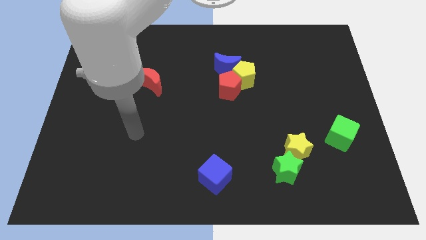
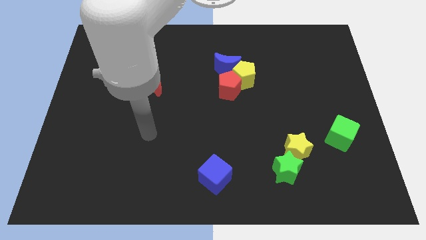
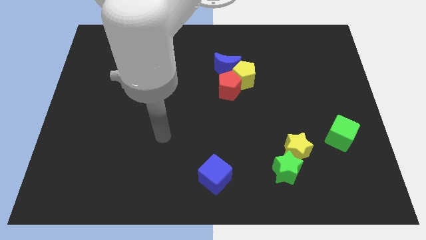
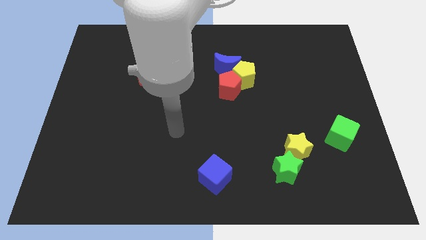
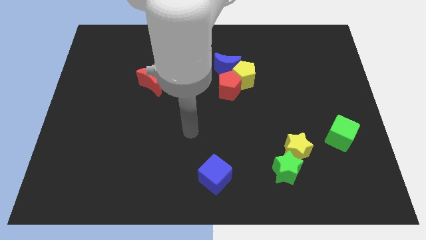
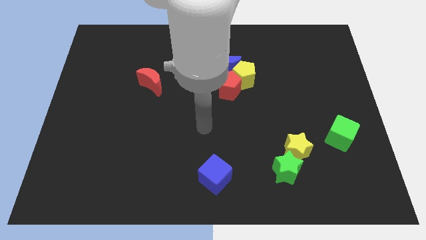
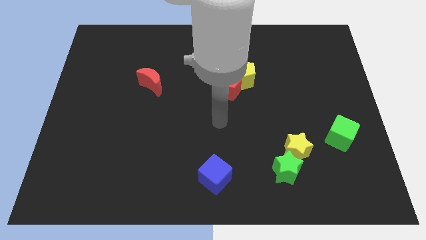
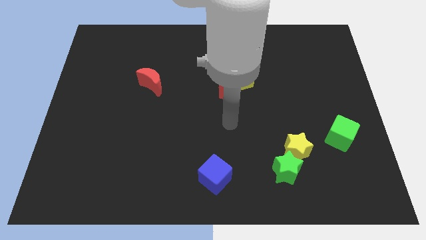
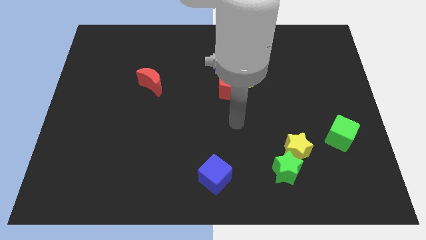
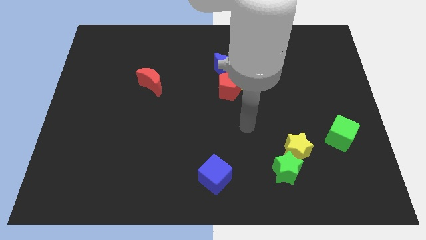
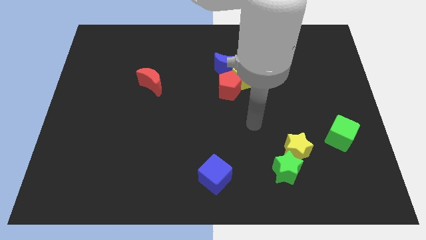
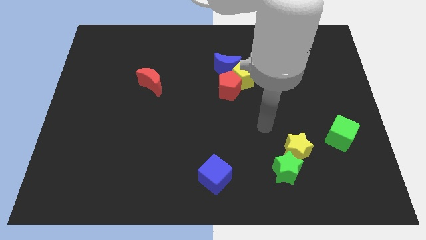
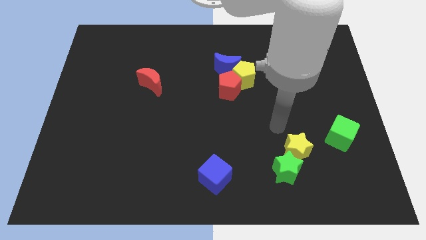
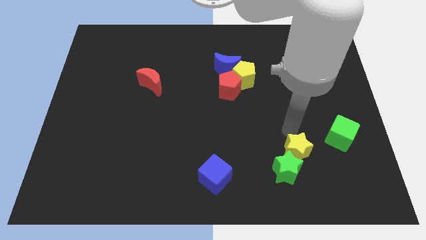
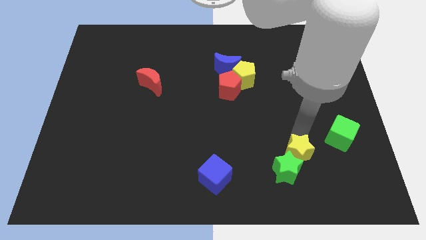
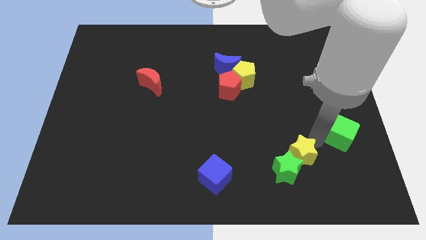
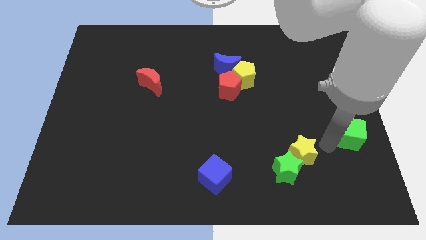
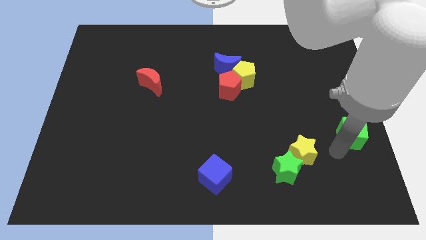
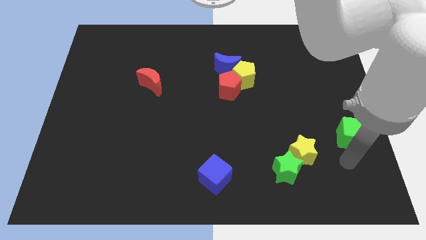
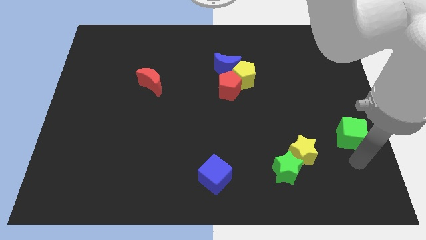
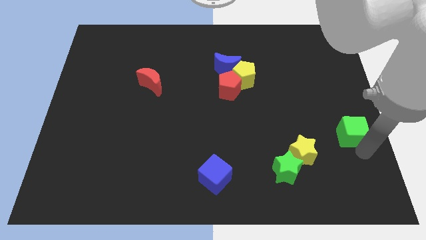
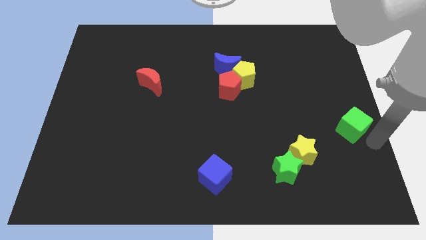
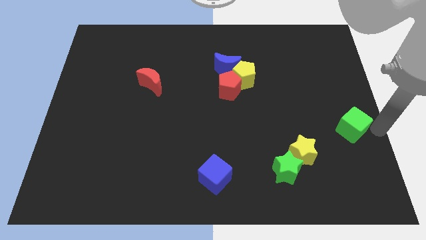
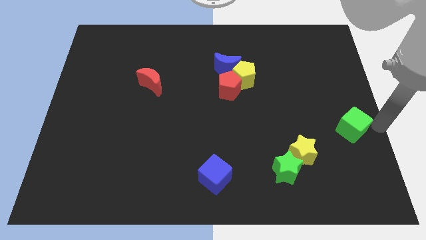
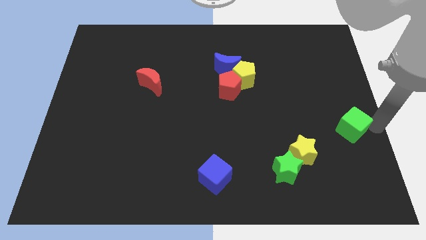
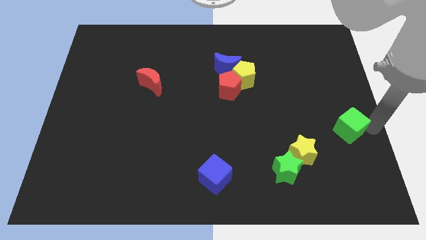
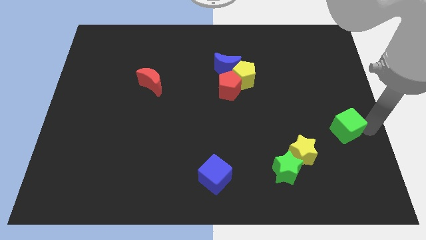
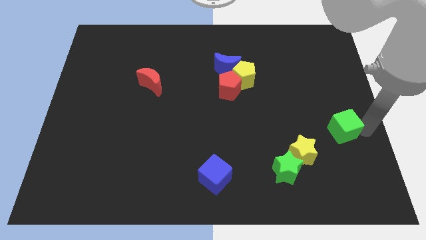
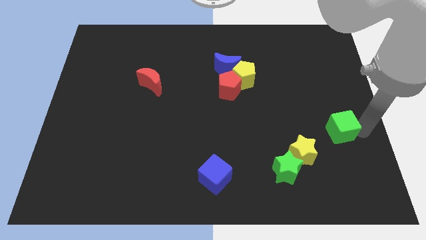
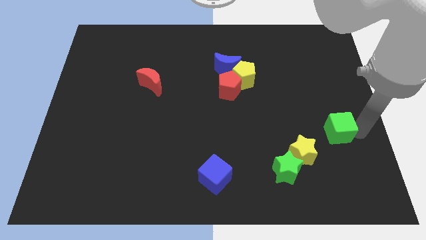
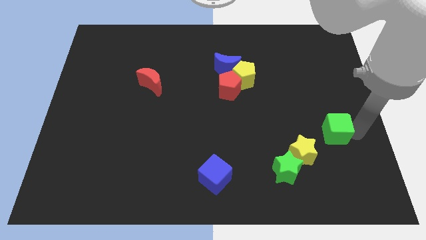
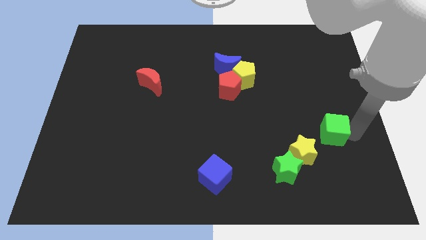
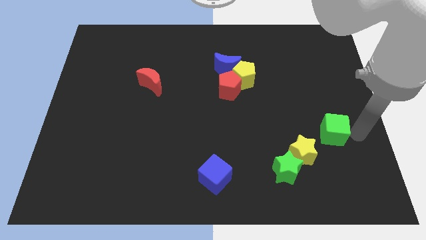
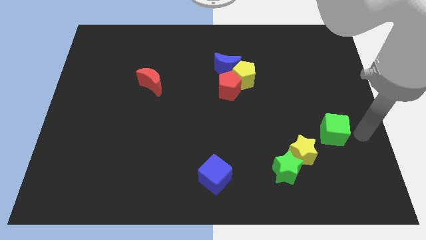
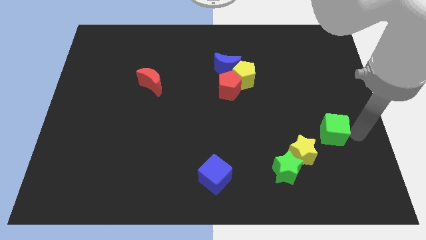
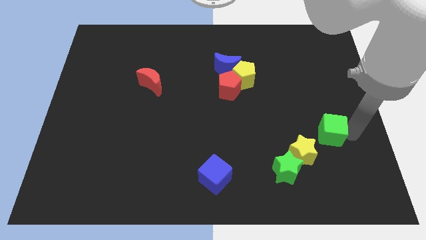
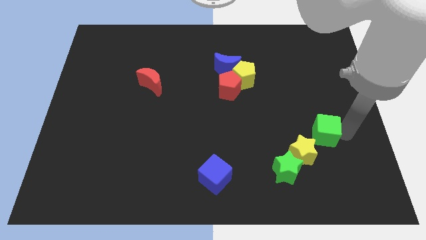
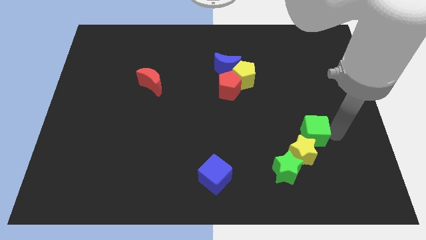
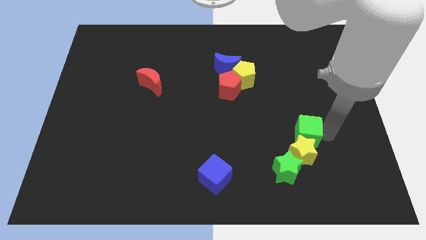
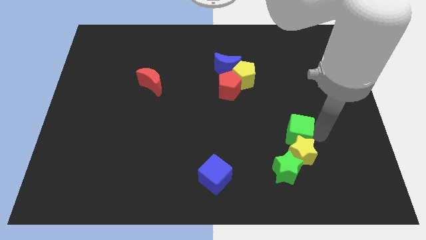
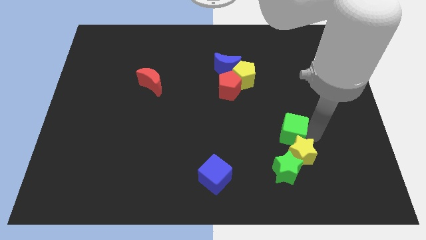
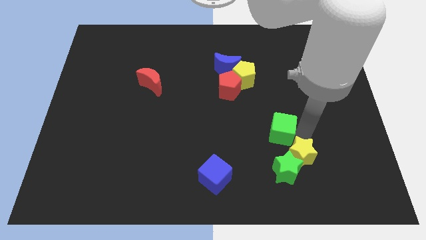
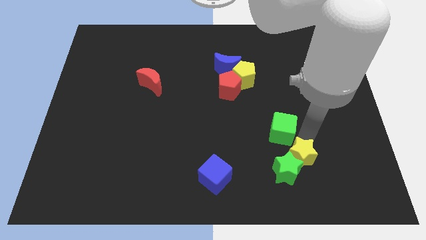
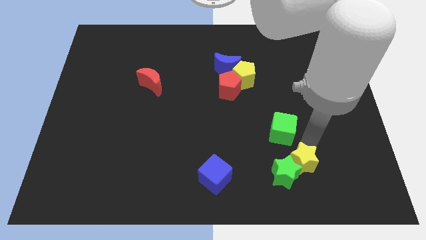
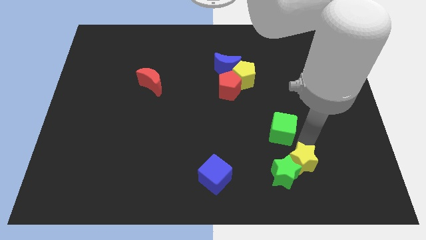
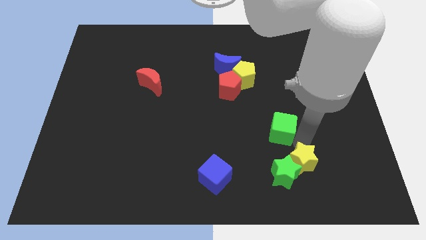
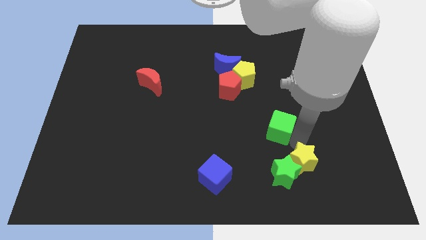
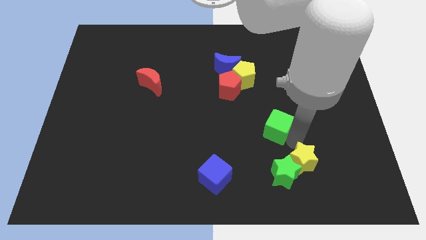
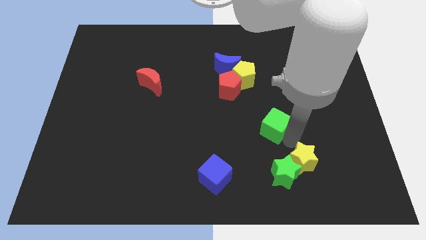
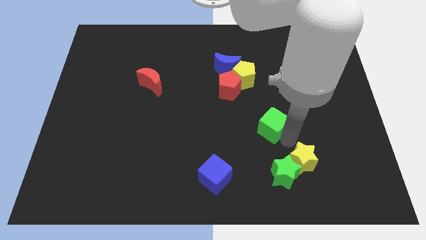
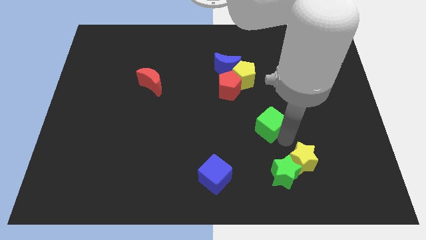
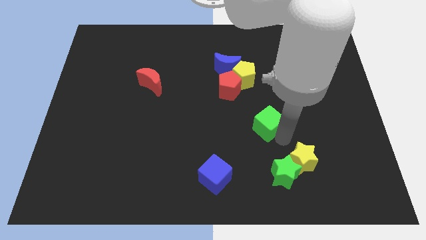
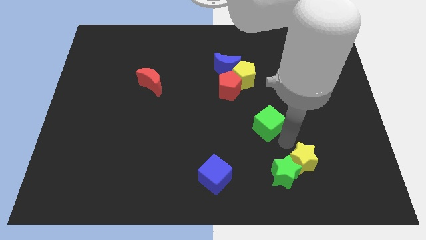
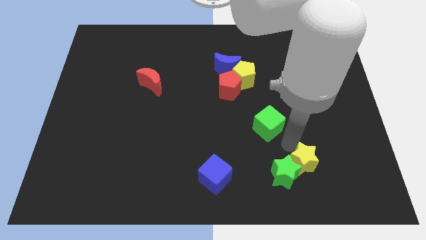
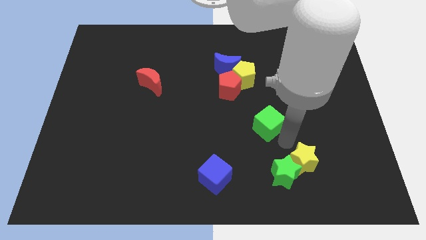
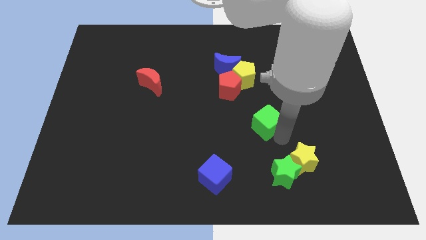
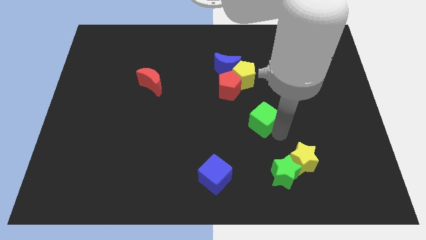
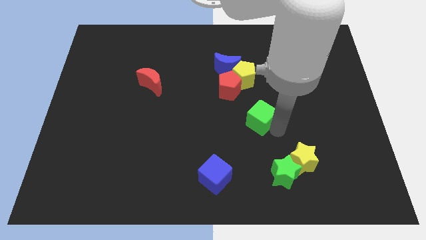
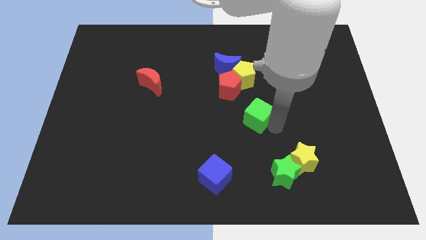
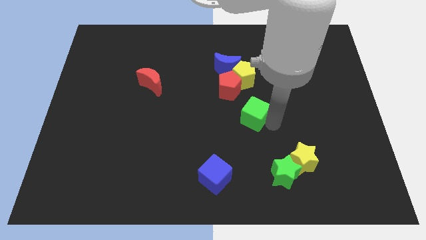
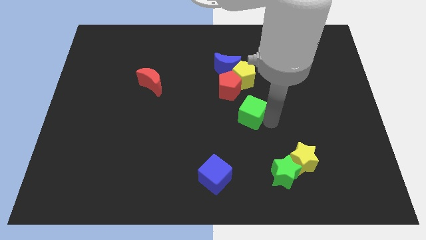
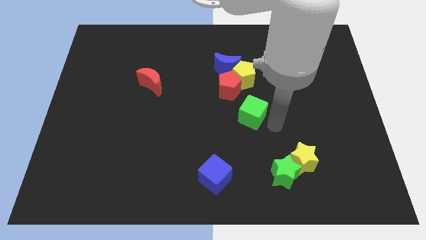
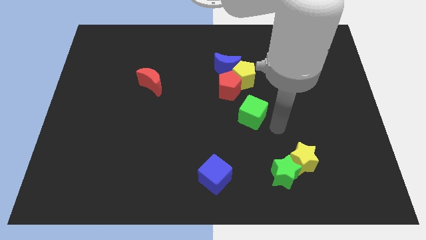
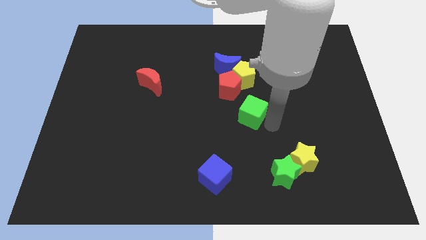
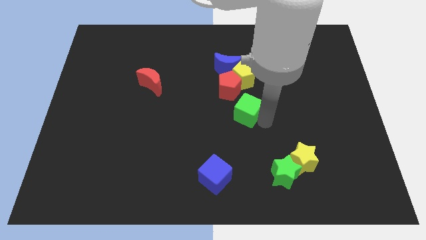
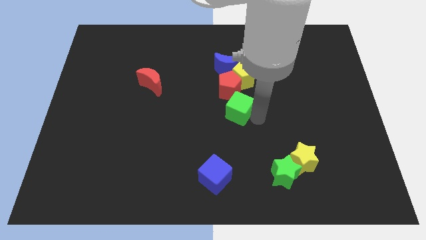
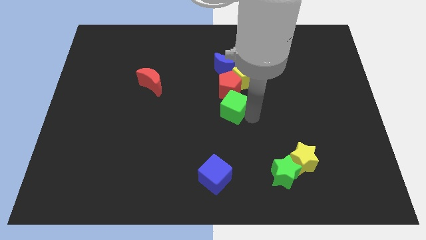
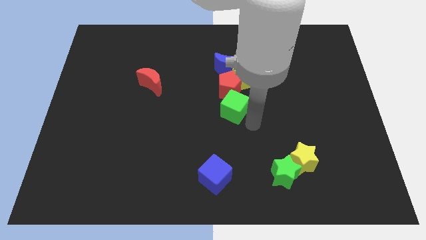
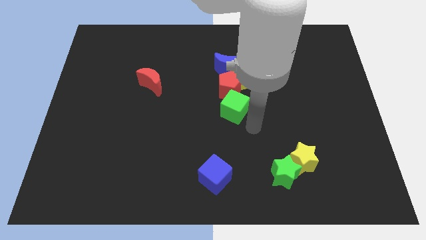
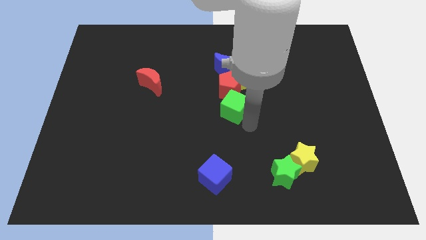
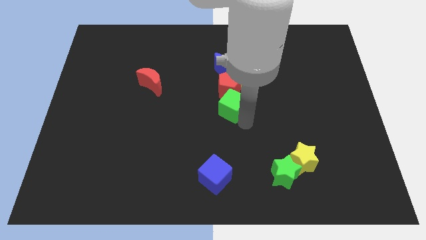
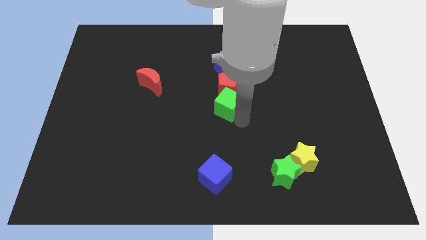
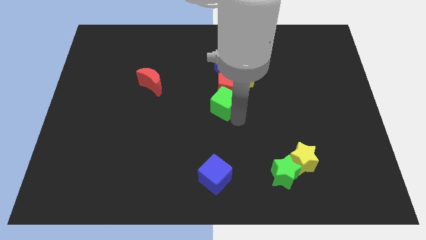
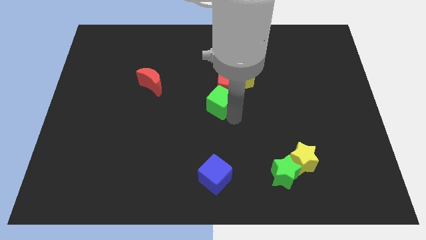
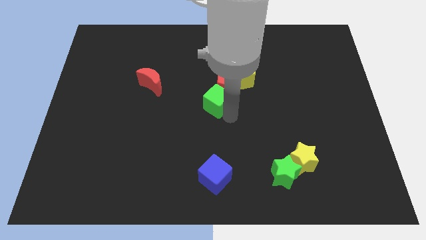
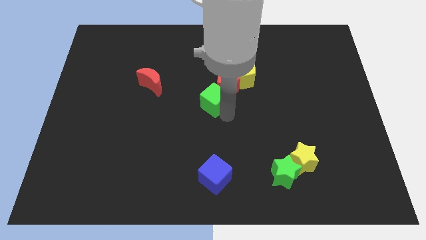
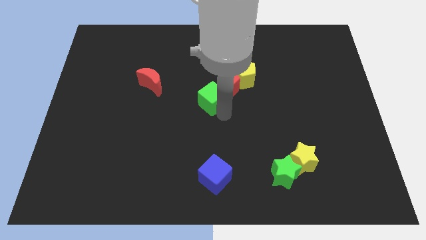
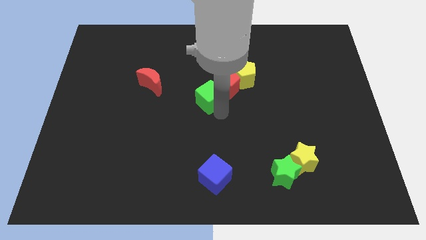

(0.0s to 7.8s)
put the green cube to the bottom left side of the blue moon

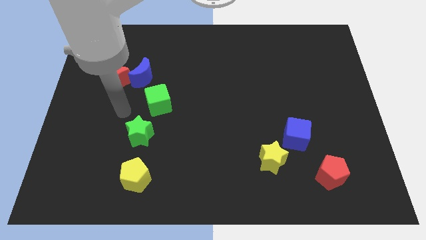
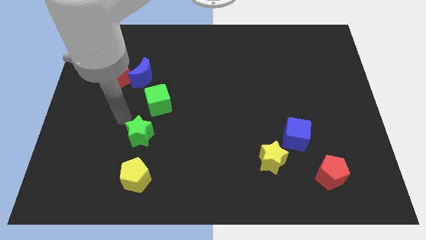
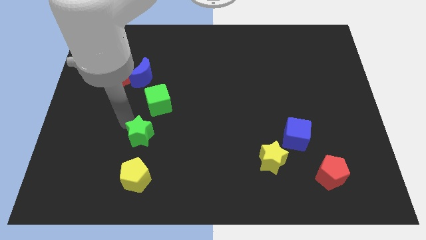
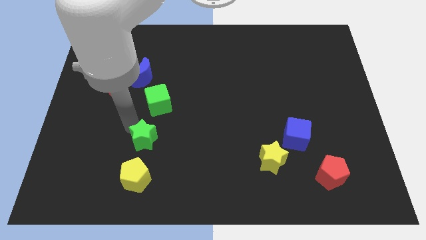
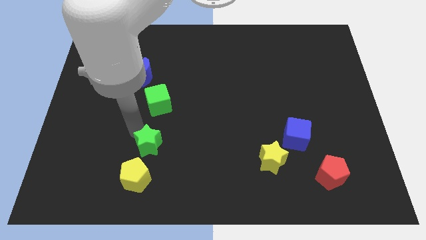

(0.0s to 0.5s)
push the green star to the top right side of the yellow pentagon
